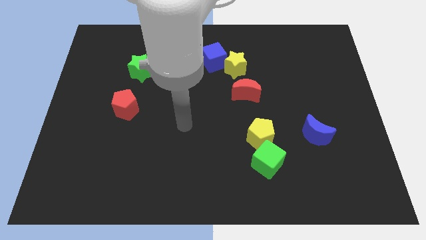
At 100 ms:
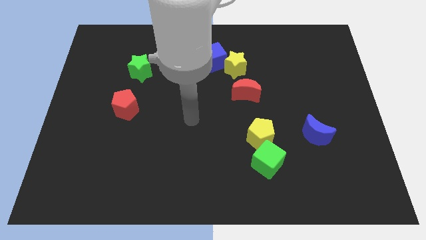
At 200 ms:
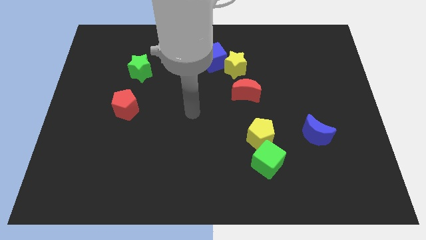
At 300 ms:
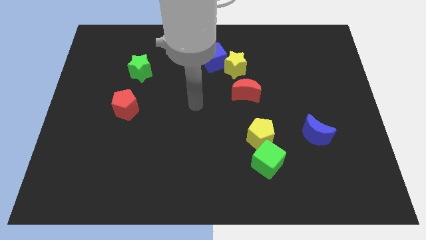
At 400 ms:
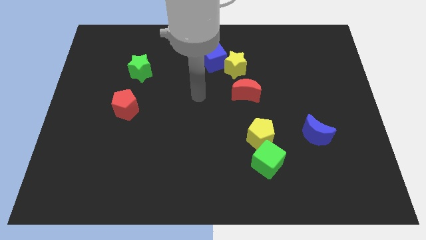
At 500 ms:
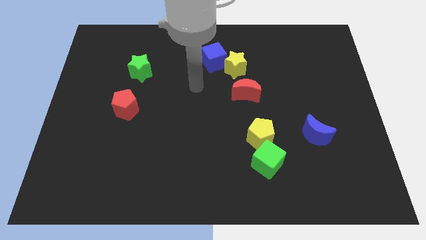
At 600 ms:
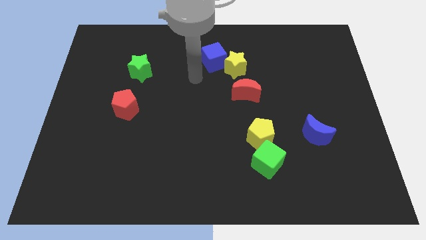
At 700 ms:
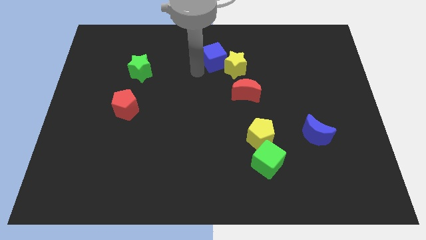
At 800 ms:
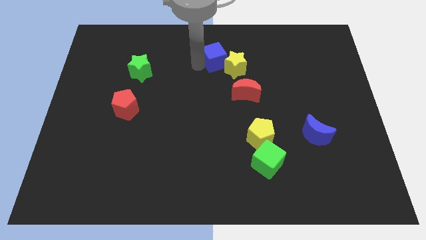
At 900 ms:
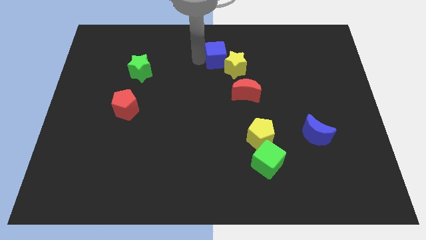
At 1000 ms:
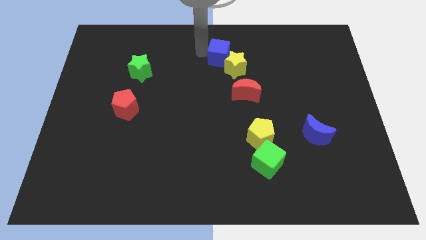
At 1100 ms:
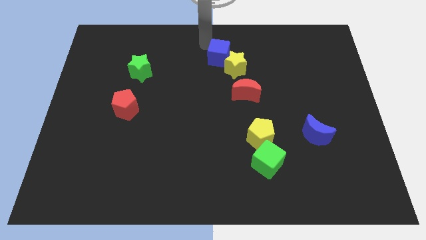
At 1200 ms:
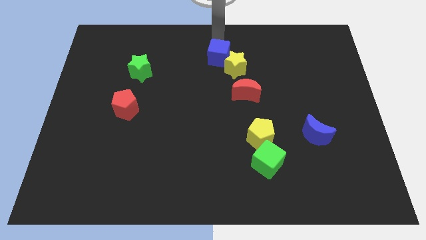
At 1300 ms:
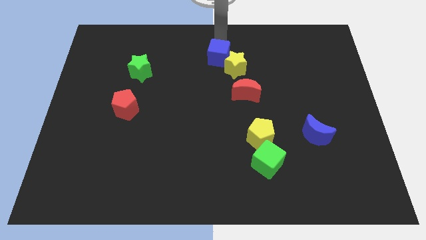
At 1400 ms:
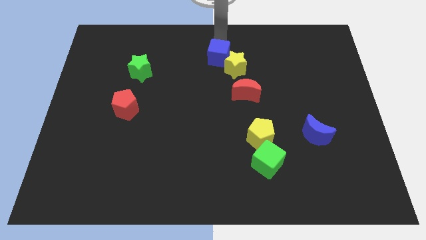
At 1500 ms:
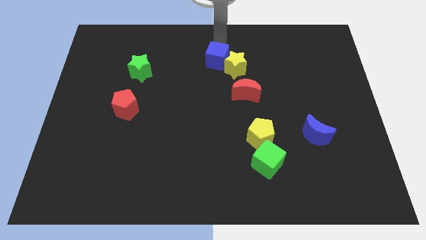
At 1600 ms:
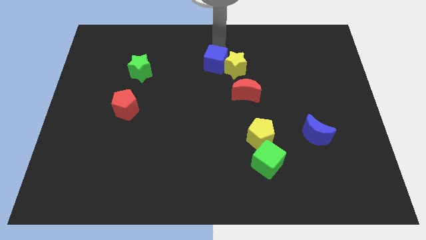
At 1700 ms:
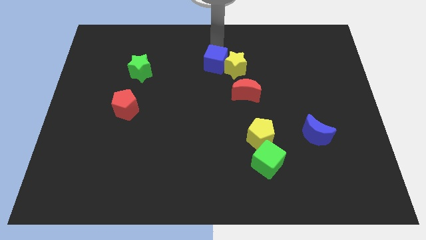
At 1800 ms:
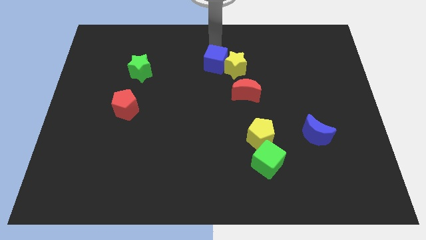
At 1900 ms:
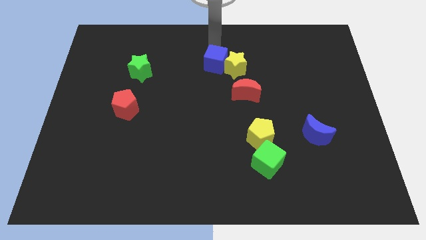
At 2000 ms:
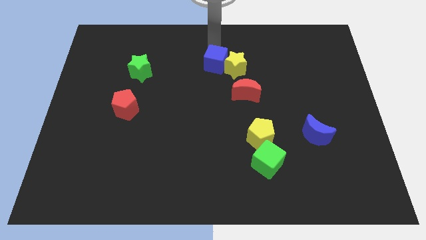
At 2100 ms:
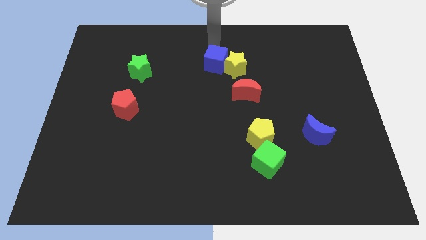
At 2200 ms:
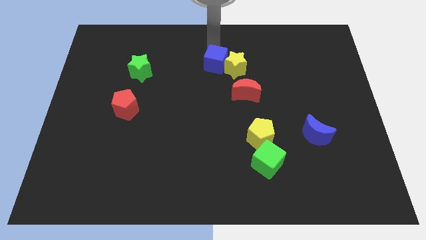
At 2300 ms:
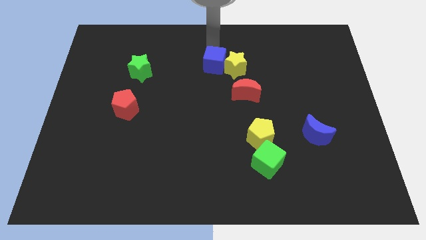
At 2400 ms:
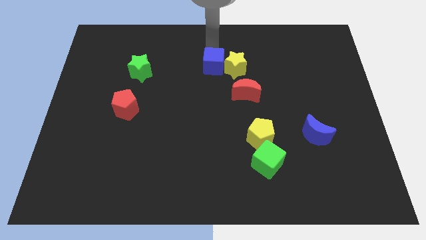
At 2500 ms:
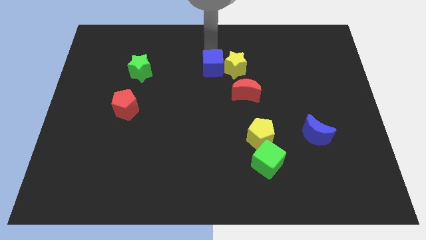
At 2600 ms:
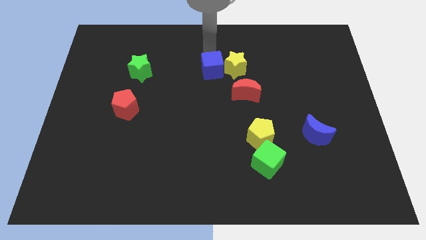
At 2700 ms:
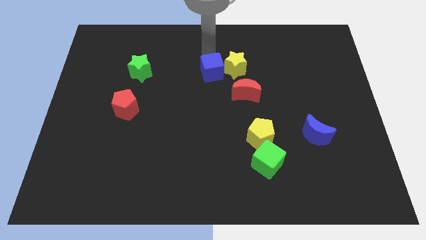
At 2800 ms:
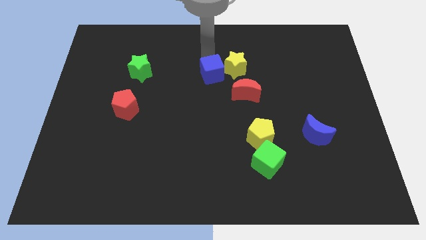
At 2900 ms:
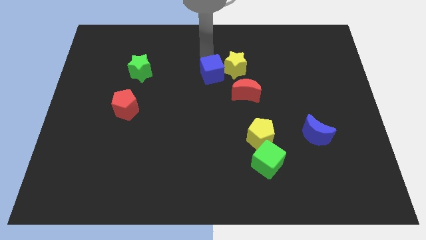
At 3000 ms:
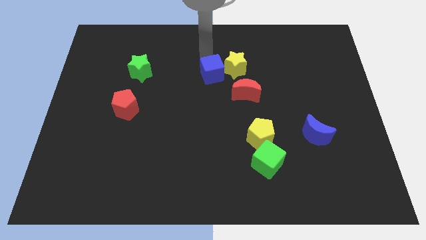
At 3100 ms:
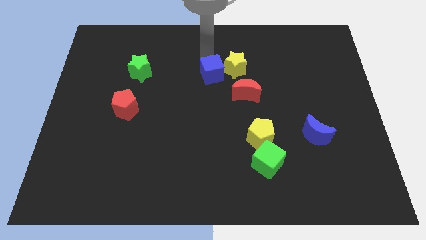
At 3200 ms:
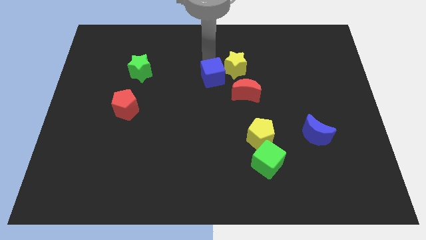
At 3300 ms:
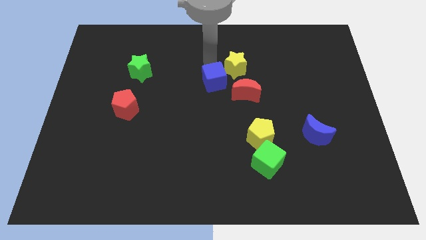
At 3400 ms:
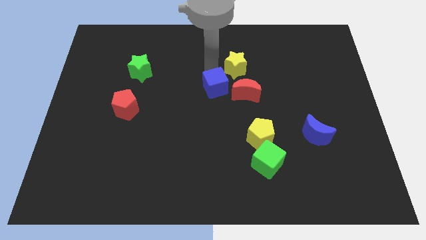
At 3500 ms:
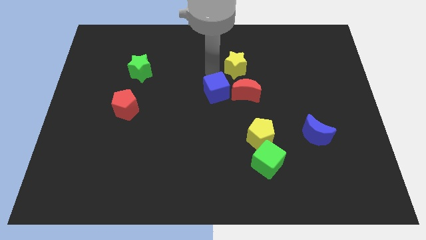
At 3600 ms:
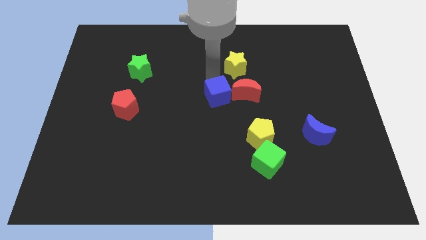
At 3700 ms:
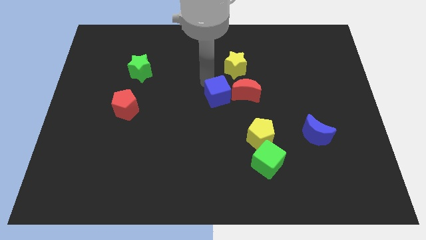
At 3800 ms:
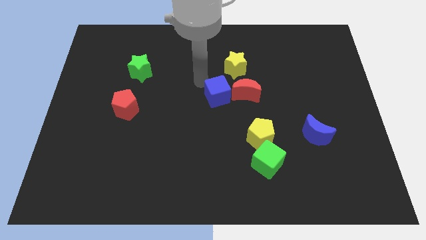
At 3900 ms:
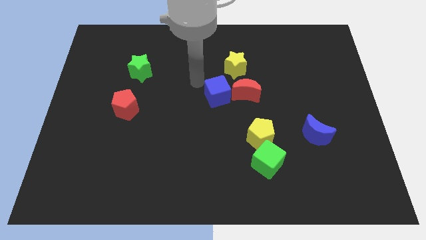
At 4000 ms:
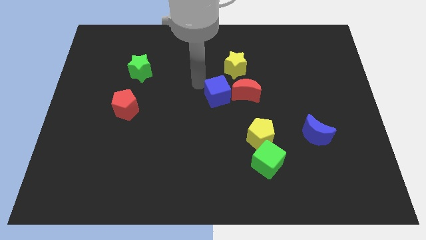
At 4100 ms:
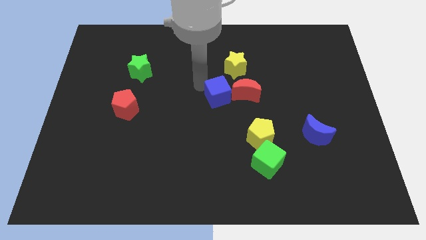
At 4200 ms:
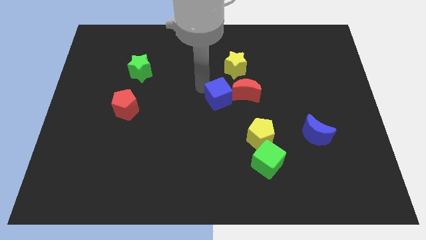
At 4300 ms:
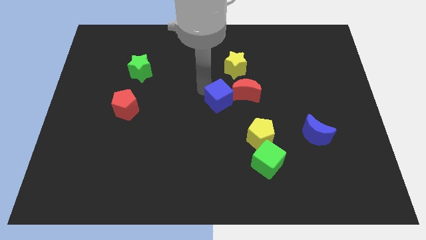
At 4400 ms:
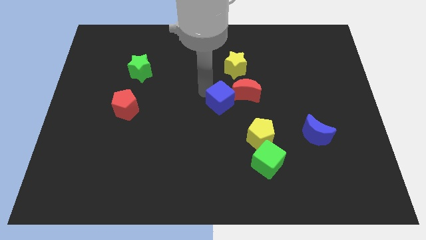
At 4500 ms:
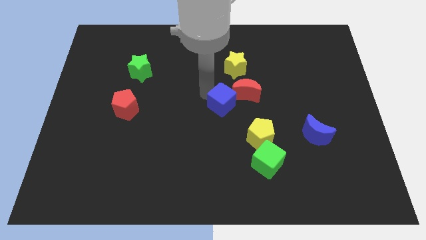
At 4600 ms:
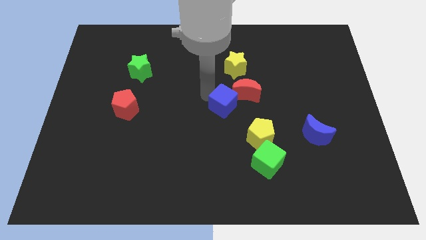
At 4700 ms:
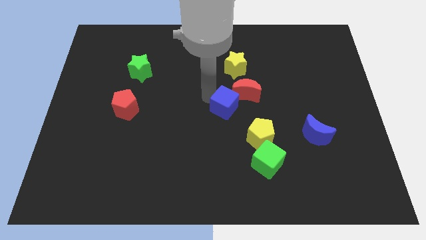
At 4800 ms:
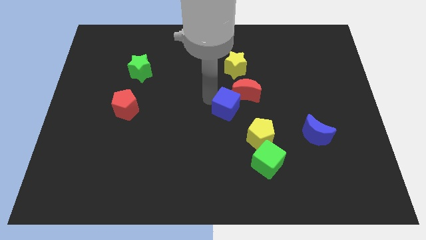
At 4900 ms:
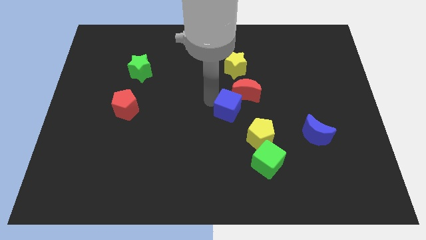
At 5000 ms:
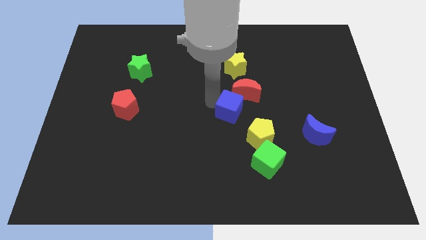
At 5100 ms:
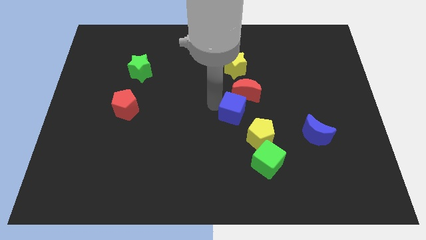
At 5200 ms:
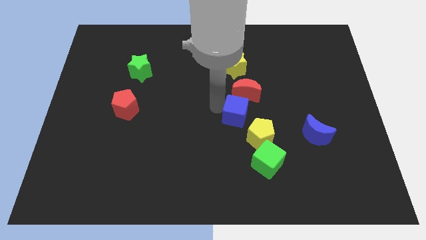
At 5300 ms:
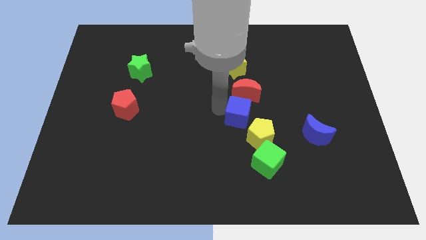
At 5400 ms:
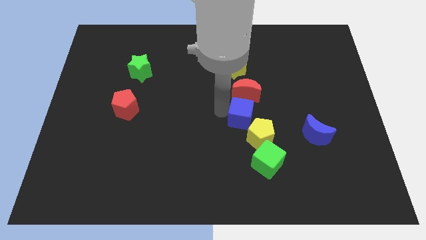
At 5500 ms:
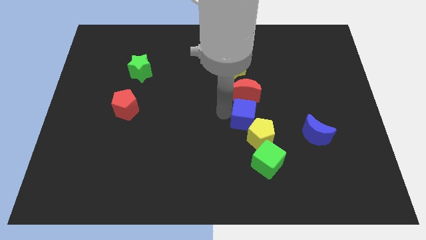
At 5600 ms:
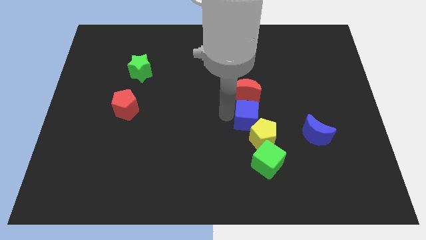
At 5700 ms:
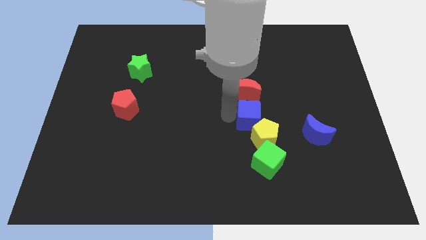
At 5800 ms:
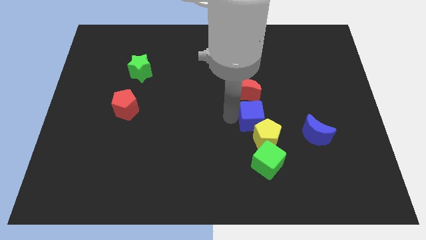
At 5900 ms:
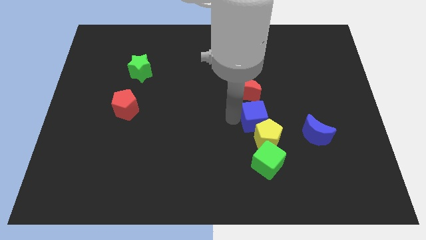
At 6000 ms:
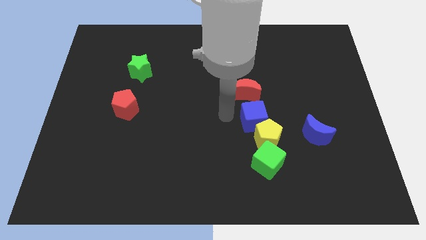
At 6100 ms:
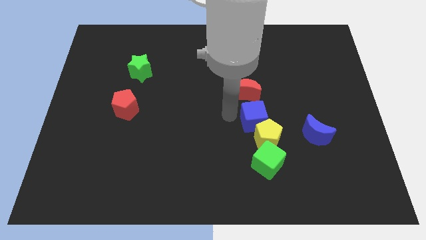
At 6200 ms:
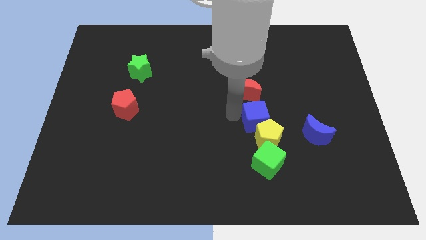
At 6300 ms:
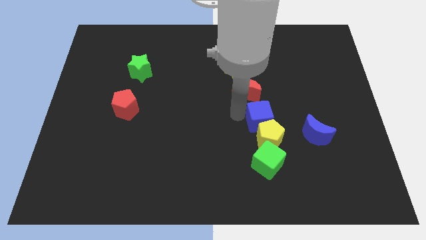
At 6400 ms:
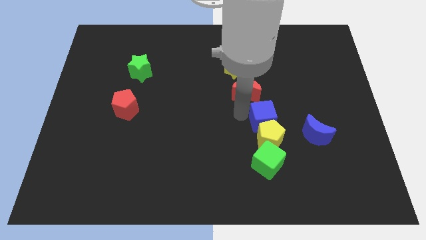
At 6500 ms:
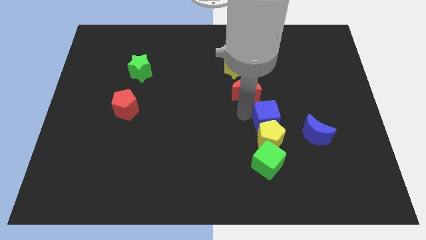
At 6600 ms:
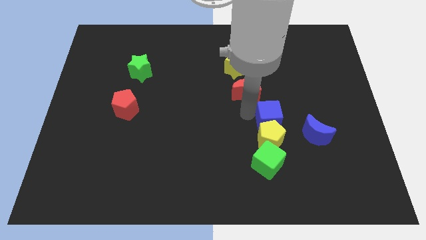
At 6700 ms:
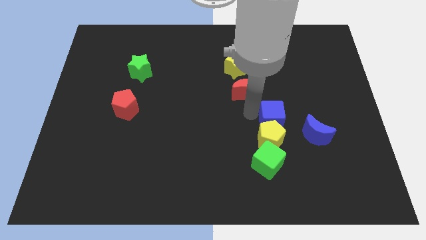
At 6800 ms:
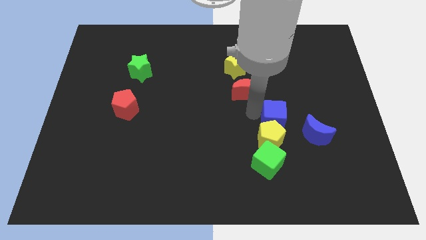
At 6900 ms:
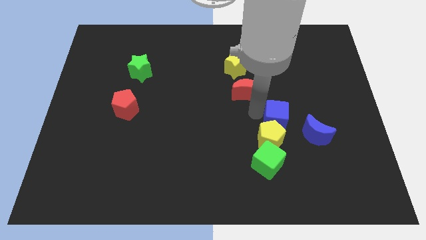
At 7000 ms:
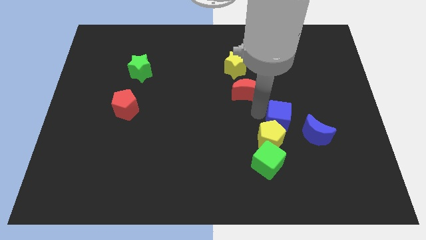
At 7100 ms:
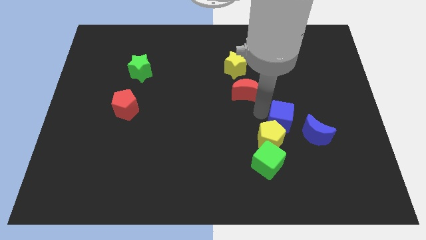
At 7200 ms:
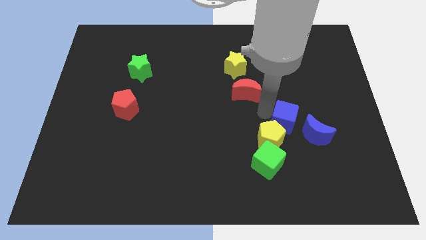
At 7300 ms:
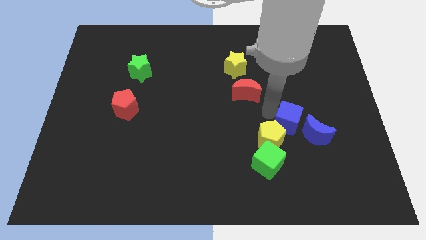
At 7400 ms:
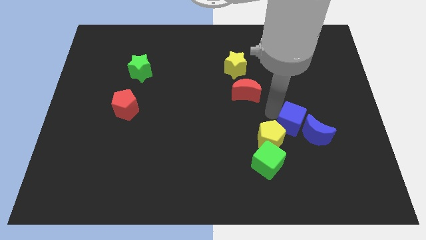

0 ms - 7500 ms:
put the blue cube to the blue moon

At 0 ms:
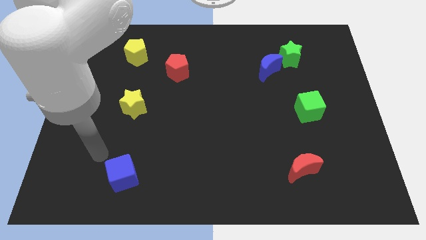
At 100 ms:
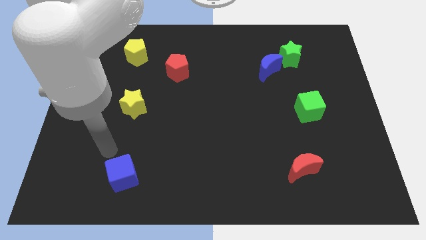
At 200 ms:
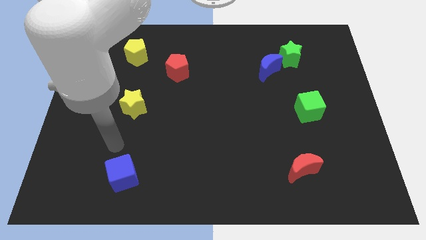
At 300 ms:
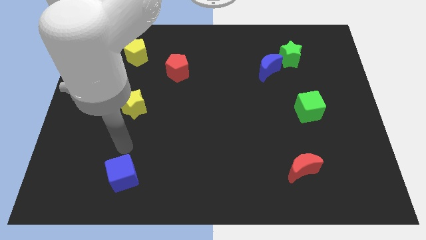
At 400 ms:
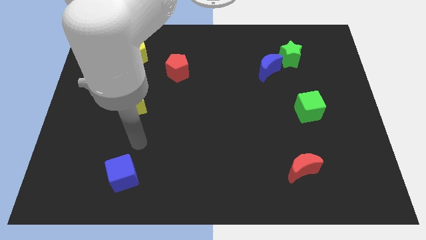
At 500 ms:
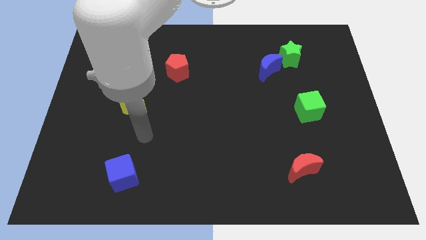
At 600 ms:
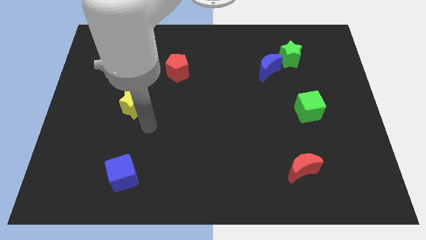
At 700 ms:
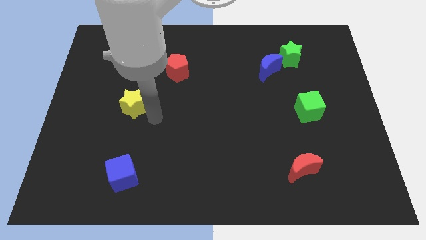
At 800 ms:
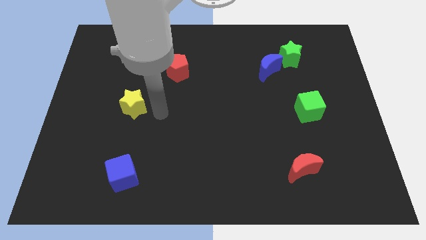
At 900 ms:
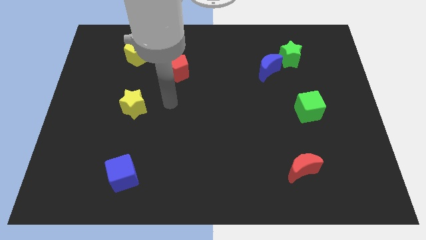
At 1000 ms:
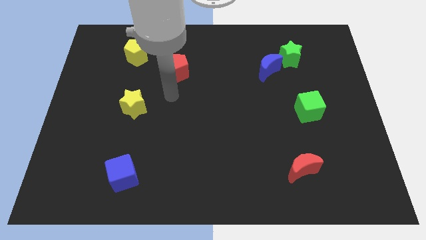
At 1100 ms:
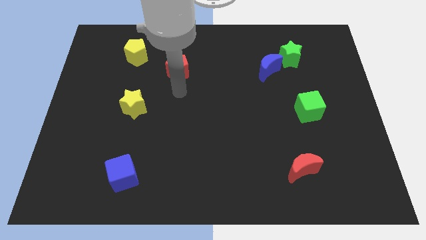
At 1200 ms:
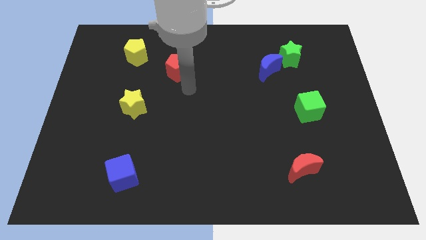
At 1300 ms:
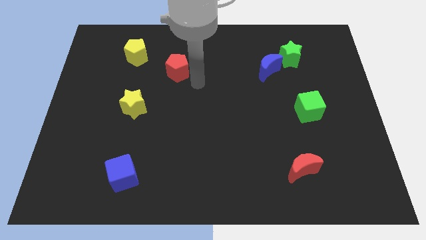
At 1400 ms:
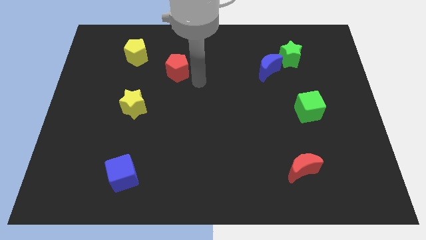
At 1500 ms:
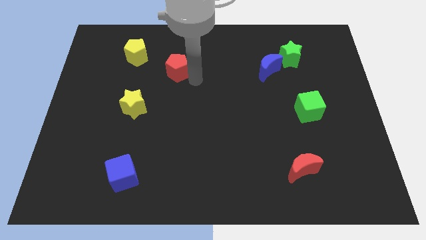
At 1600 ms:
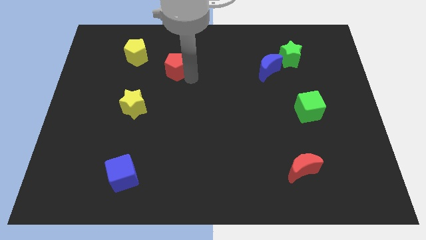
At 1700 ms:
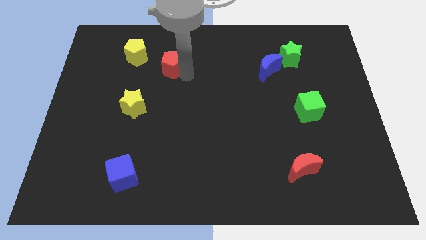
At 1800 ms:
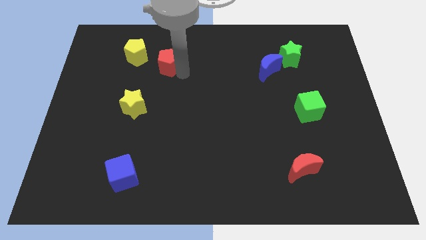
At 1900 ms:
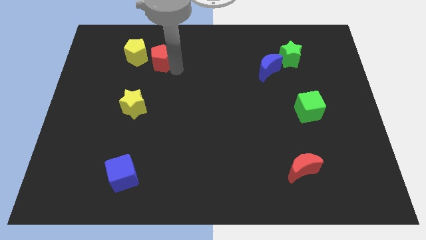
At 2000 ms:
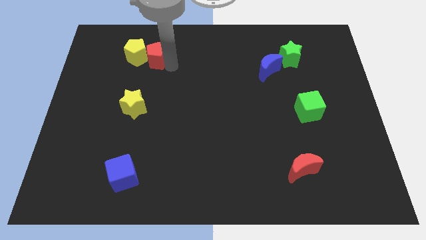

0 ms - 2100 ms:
move the red pentagon to the yellow pentagon
